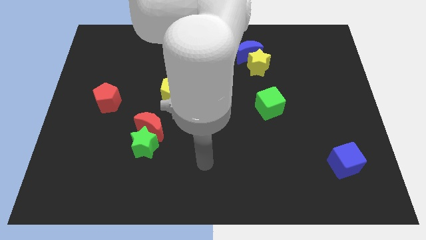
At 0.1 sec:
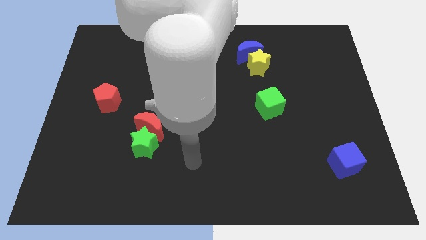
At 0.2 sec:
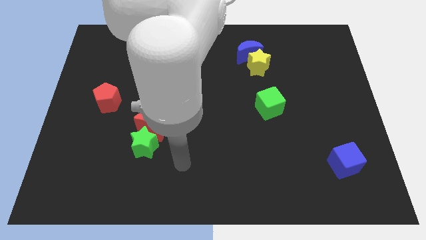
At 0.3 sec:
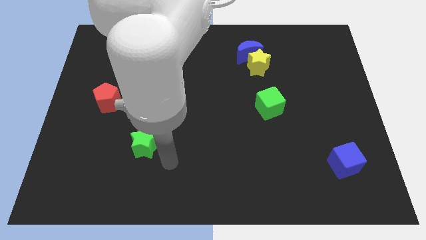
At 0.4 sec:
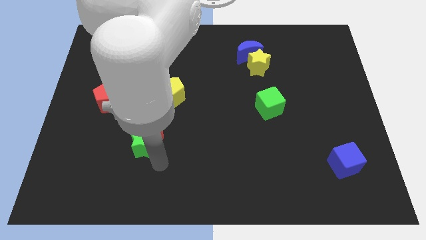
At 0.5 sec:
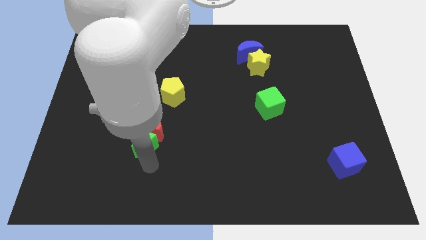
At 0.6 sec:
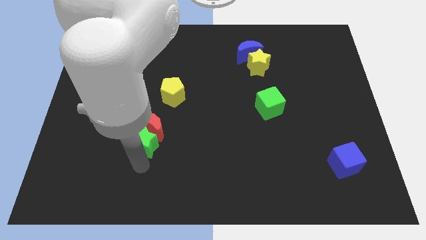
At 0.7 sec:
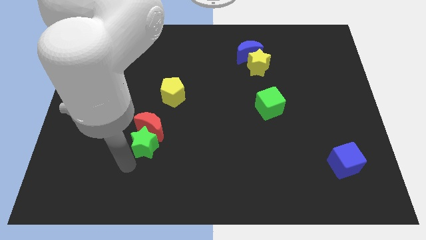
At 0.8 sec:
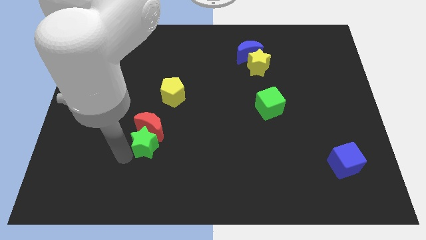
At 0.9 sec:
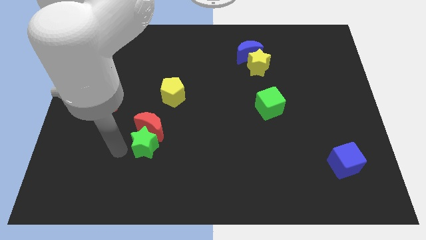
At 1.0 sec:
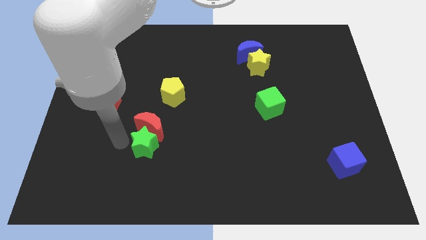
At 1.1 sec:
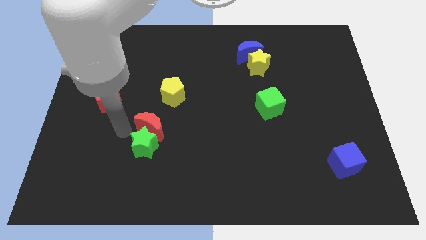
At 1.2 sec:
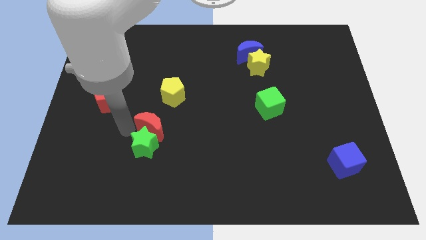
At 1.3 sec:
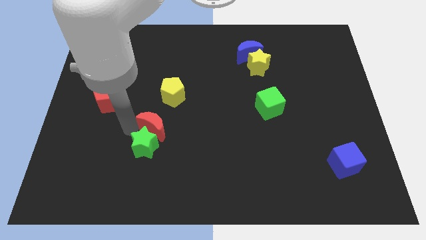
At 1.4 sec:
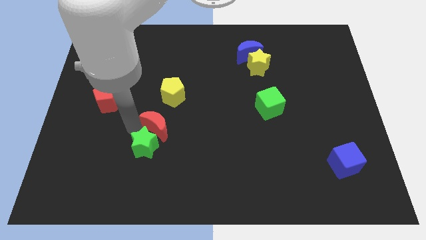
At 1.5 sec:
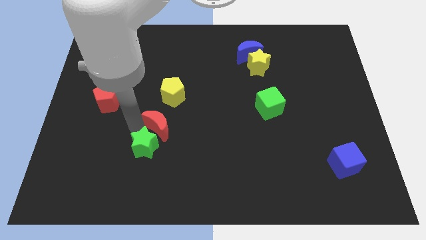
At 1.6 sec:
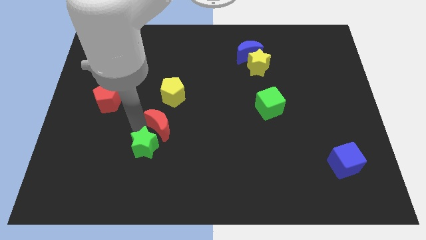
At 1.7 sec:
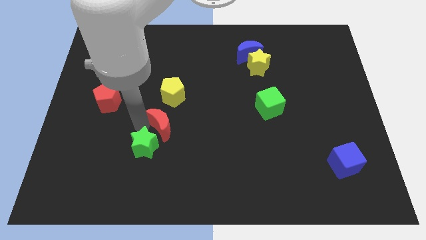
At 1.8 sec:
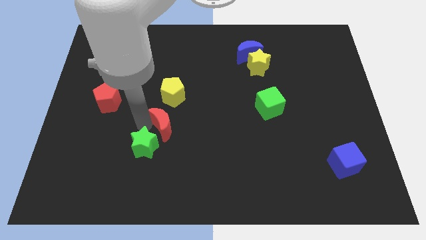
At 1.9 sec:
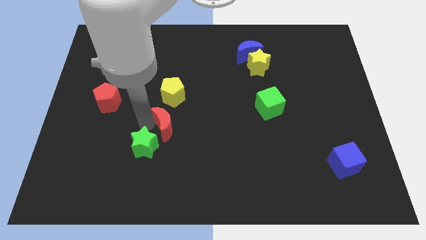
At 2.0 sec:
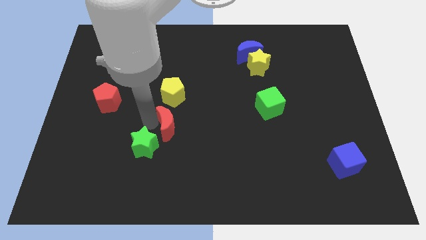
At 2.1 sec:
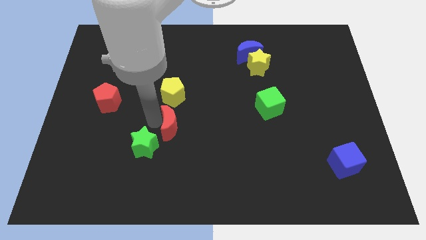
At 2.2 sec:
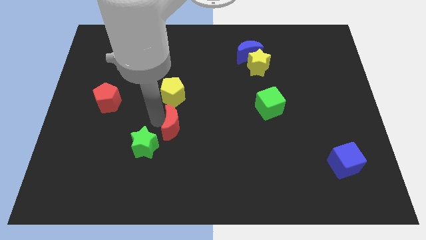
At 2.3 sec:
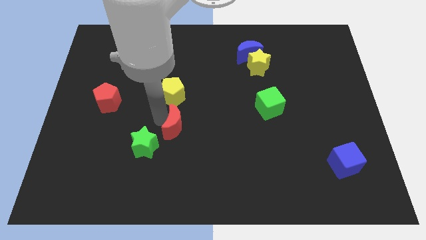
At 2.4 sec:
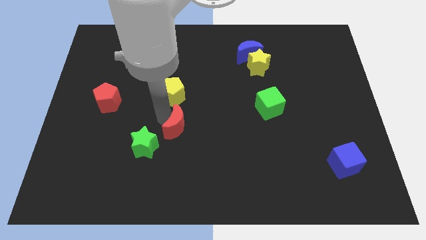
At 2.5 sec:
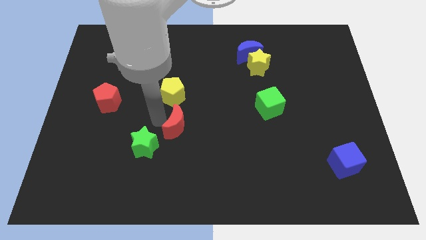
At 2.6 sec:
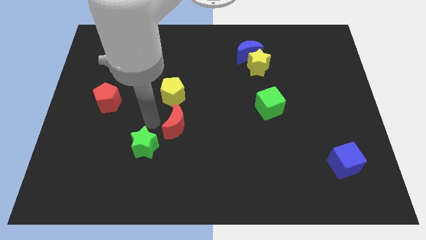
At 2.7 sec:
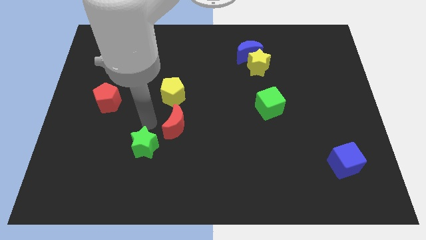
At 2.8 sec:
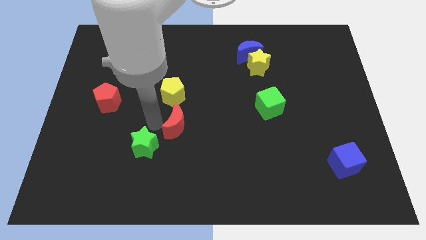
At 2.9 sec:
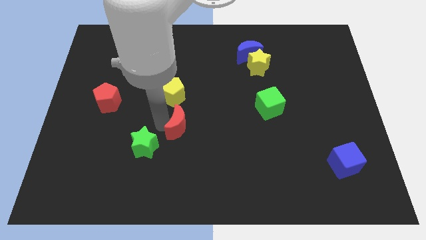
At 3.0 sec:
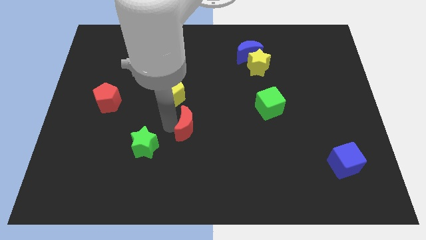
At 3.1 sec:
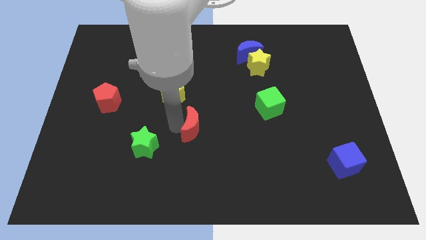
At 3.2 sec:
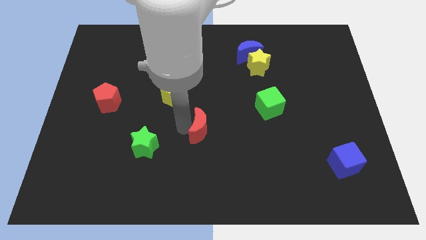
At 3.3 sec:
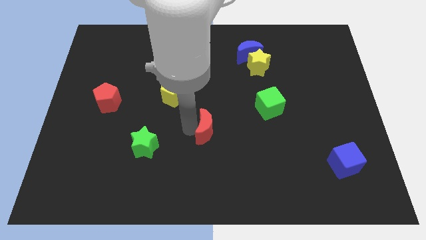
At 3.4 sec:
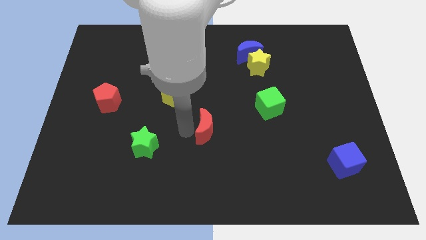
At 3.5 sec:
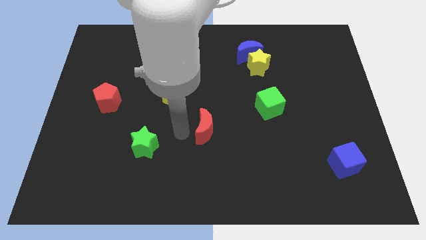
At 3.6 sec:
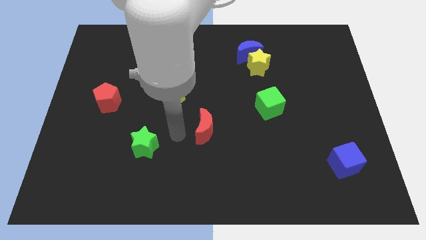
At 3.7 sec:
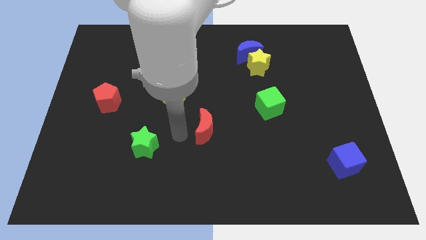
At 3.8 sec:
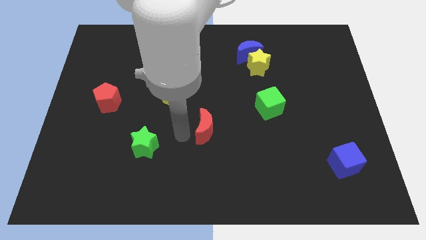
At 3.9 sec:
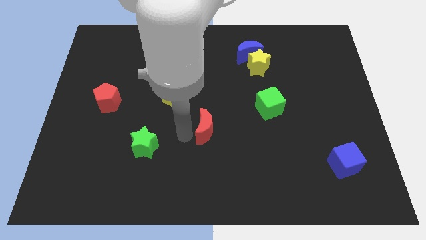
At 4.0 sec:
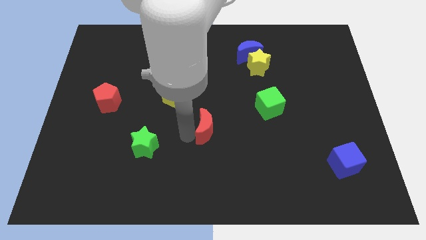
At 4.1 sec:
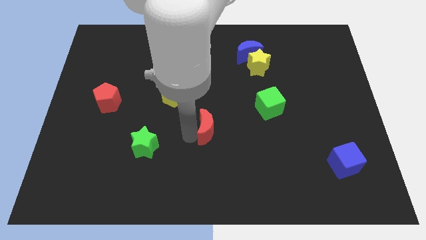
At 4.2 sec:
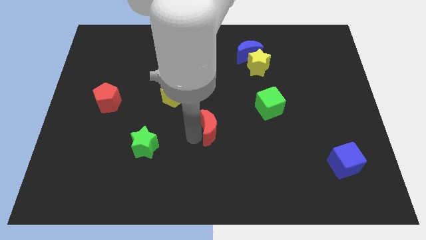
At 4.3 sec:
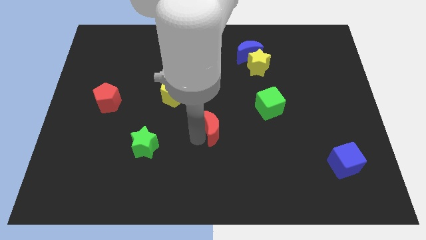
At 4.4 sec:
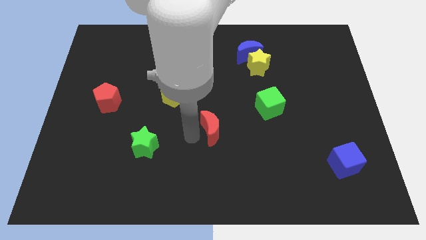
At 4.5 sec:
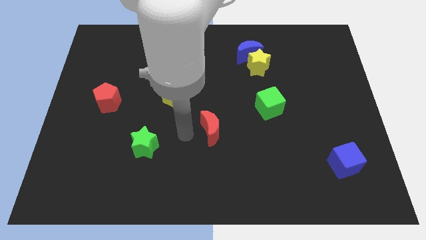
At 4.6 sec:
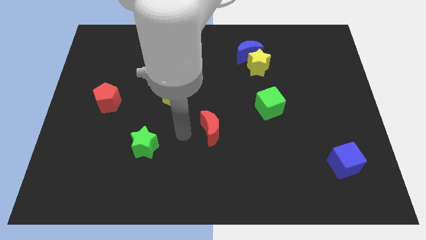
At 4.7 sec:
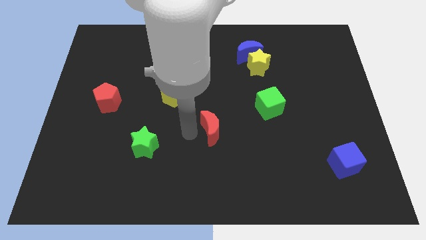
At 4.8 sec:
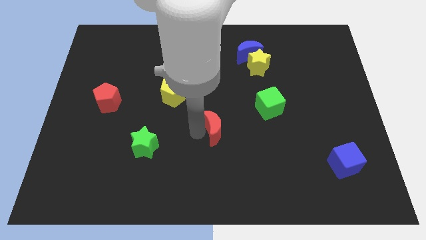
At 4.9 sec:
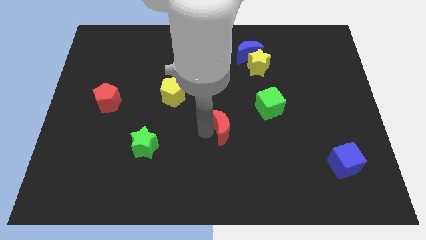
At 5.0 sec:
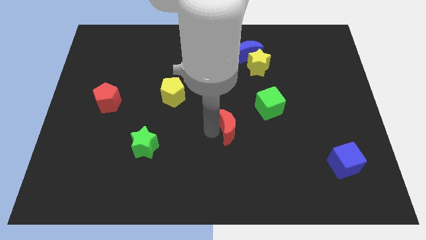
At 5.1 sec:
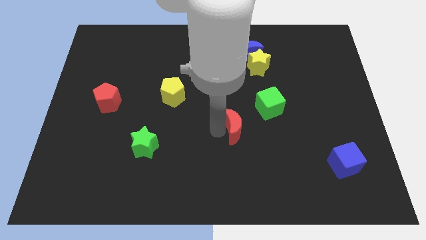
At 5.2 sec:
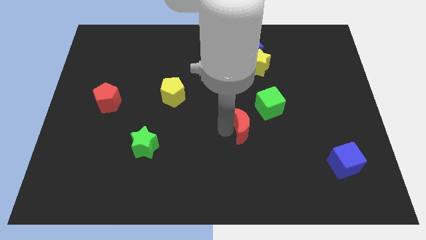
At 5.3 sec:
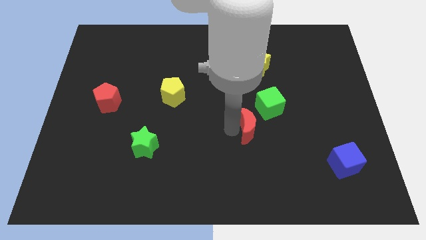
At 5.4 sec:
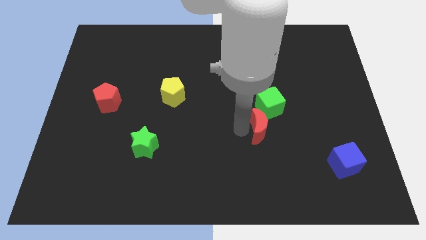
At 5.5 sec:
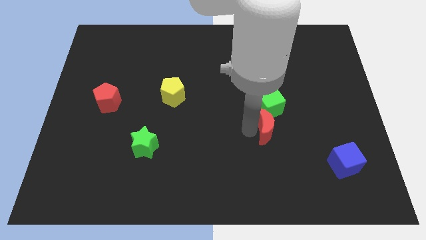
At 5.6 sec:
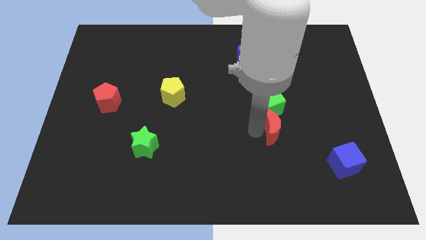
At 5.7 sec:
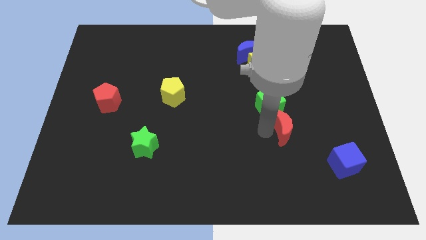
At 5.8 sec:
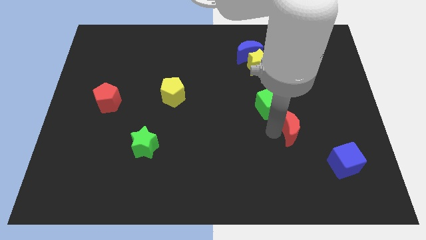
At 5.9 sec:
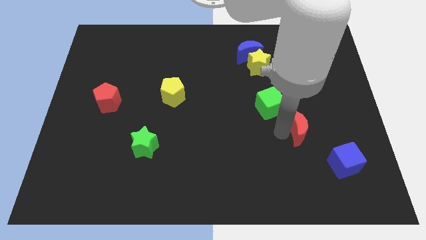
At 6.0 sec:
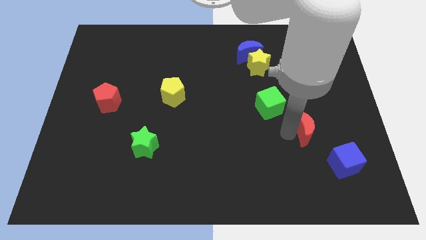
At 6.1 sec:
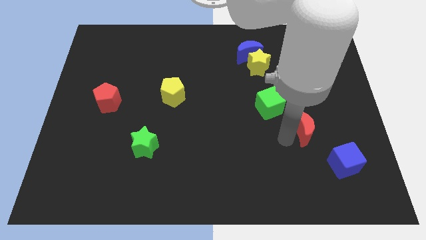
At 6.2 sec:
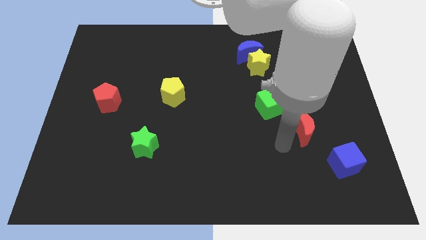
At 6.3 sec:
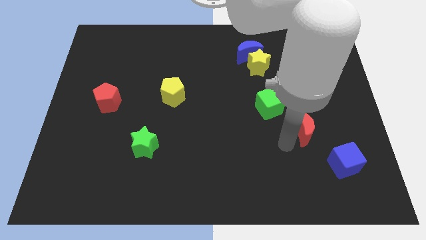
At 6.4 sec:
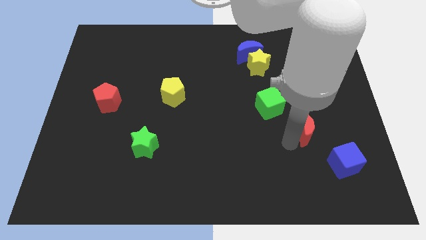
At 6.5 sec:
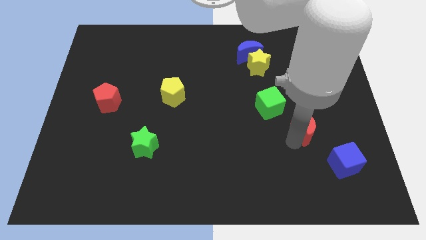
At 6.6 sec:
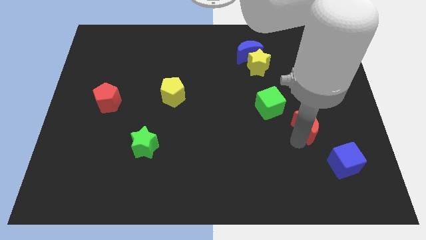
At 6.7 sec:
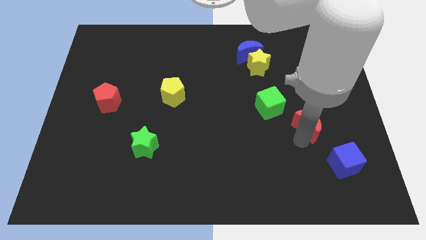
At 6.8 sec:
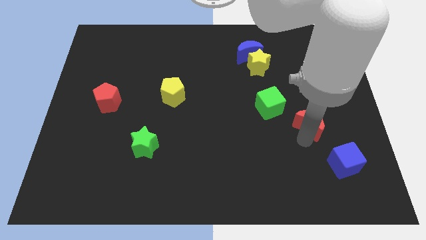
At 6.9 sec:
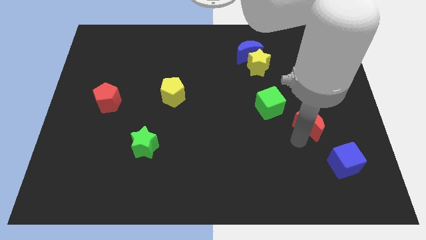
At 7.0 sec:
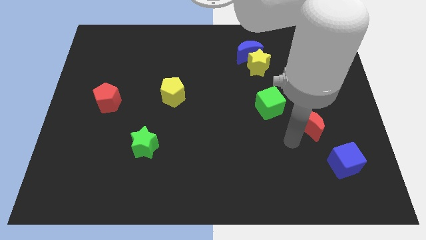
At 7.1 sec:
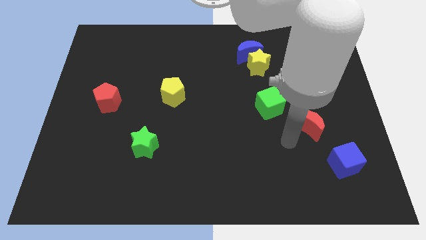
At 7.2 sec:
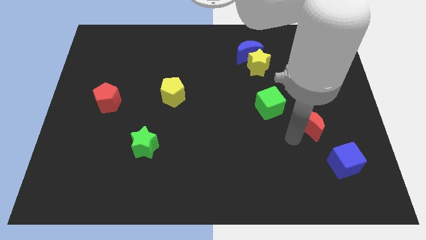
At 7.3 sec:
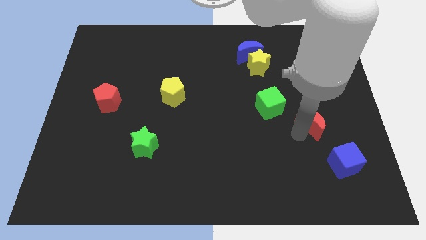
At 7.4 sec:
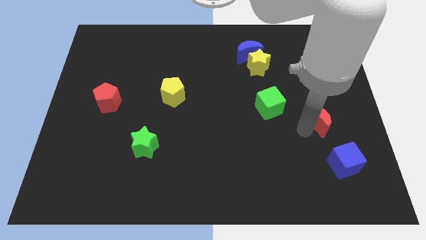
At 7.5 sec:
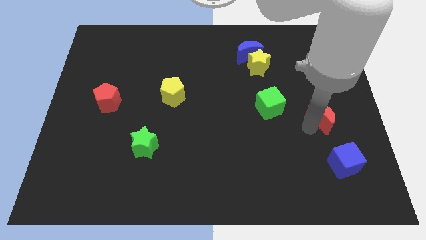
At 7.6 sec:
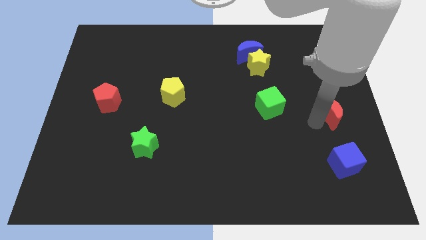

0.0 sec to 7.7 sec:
put the red moon to the center right
